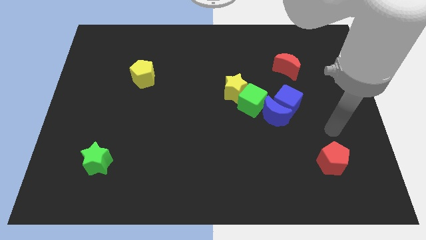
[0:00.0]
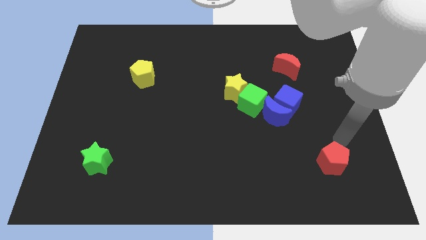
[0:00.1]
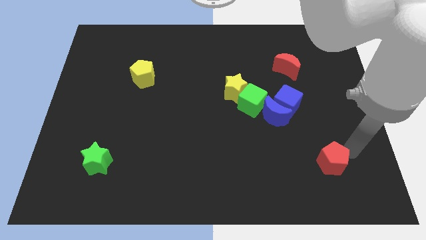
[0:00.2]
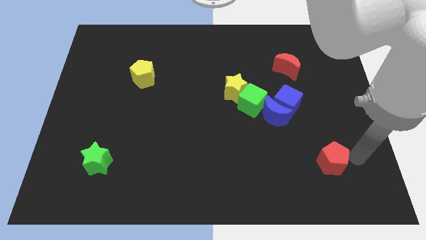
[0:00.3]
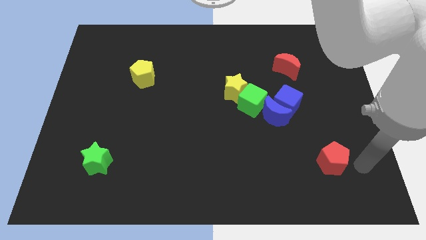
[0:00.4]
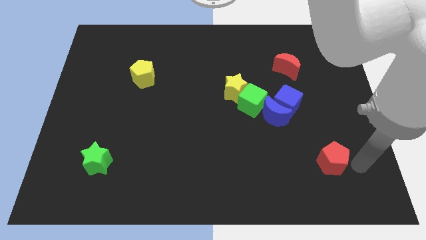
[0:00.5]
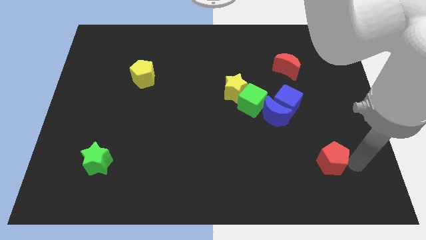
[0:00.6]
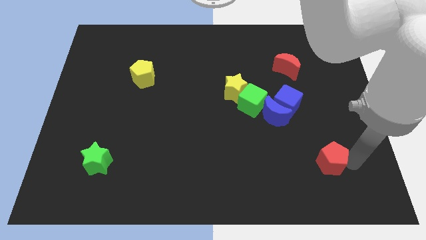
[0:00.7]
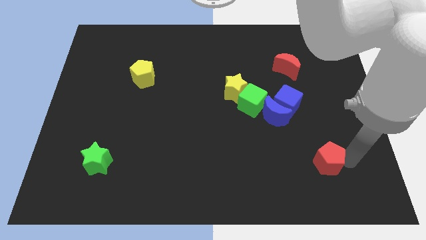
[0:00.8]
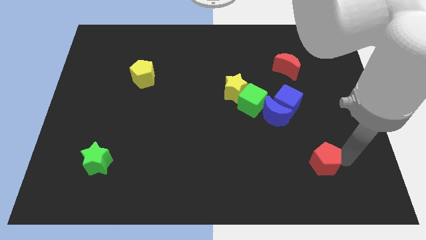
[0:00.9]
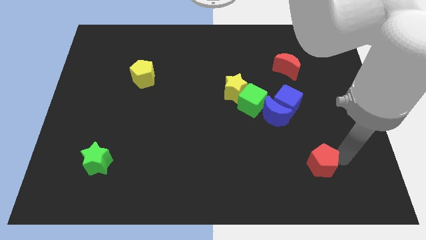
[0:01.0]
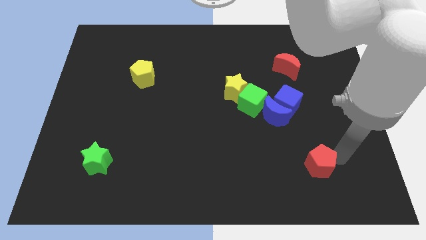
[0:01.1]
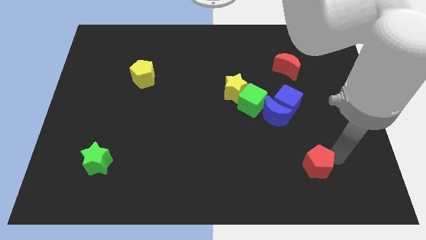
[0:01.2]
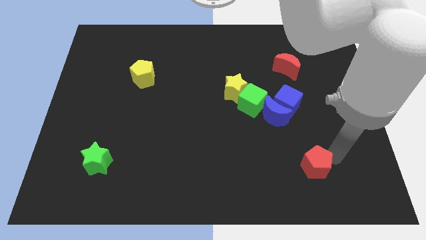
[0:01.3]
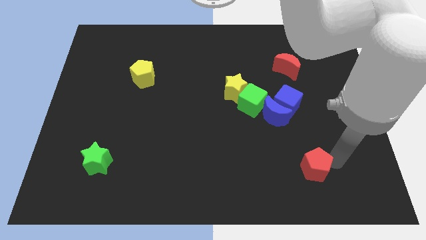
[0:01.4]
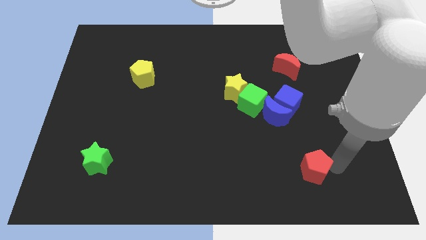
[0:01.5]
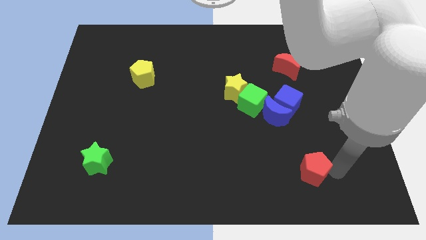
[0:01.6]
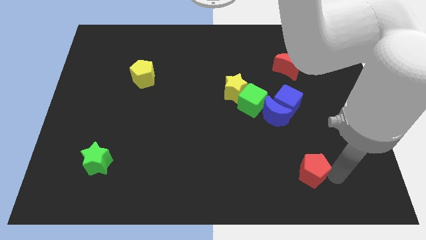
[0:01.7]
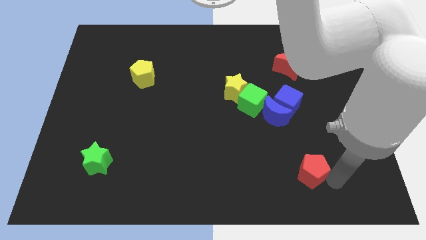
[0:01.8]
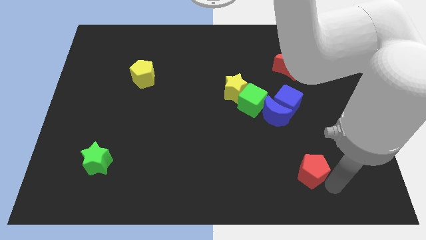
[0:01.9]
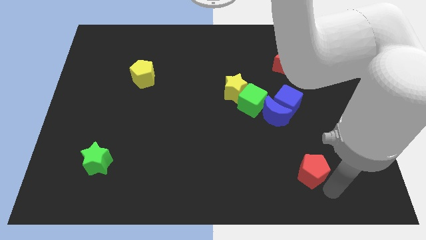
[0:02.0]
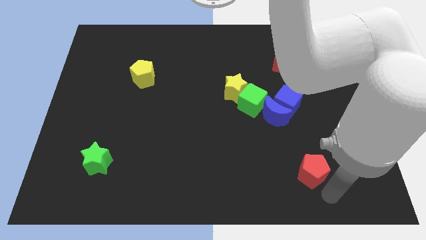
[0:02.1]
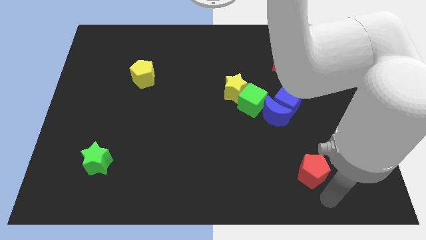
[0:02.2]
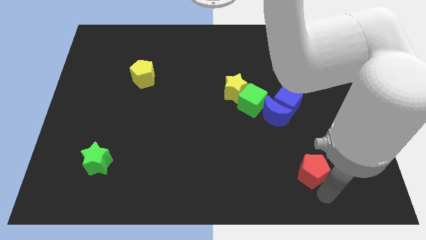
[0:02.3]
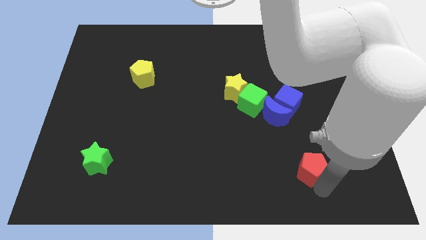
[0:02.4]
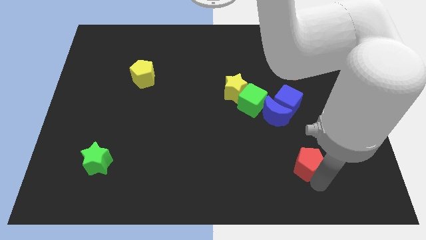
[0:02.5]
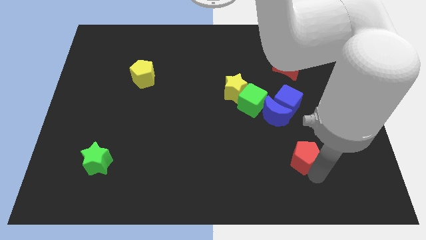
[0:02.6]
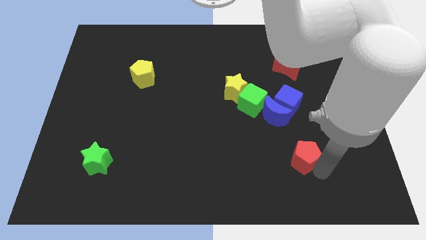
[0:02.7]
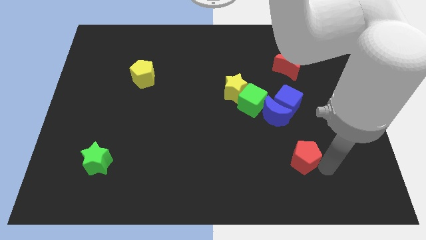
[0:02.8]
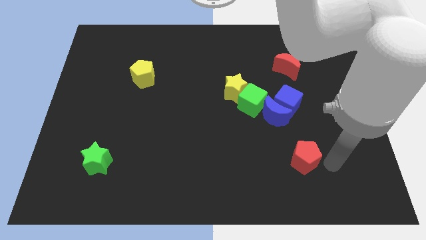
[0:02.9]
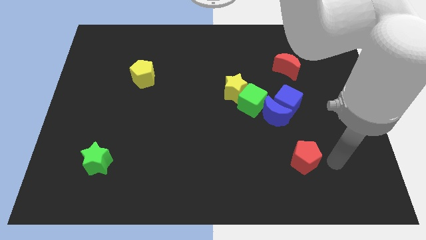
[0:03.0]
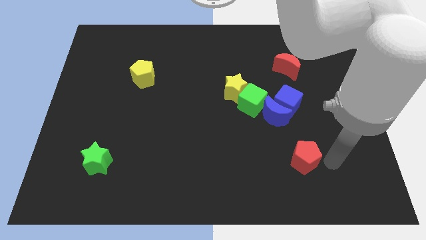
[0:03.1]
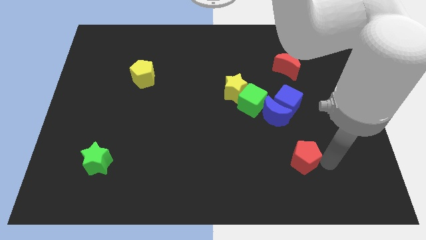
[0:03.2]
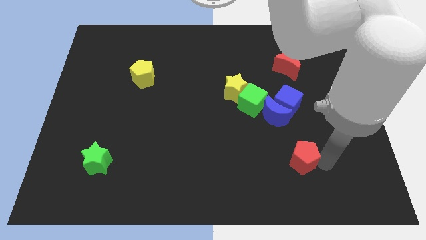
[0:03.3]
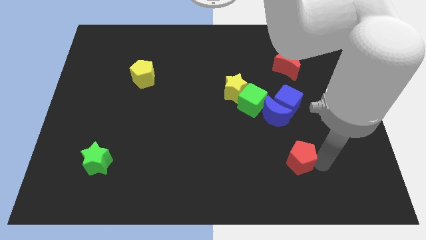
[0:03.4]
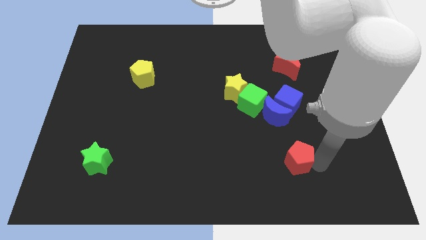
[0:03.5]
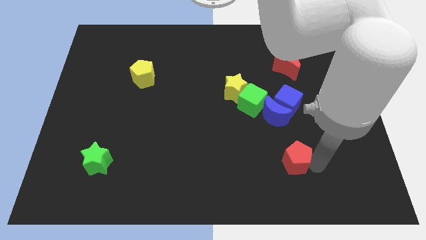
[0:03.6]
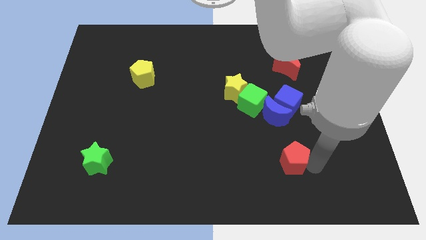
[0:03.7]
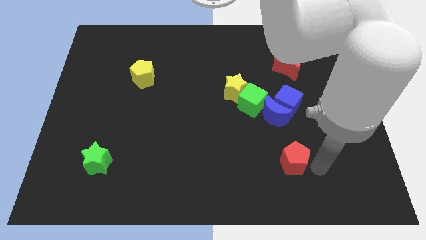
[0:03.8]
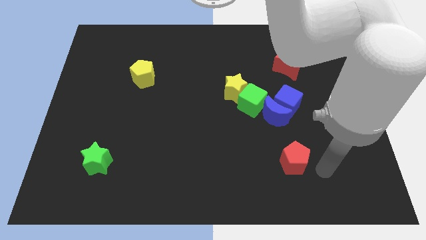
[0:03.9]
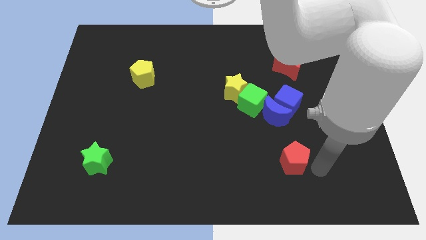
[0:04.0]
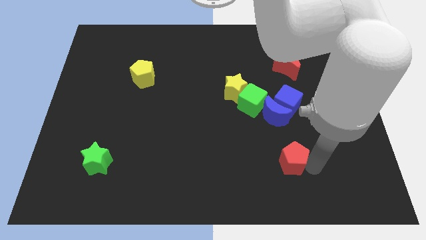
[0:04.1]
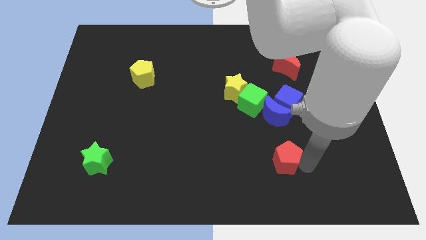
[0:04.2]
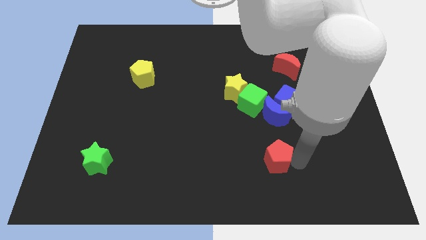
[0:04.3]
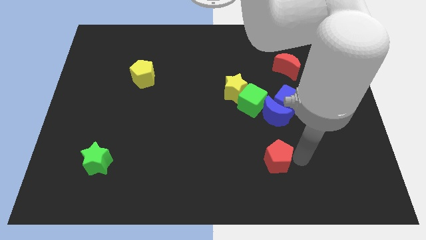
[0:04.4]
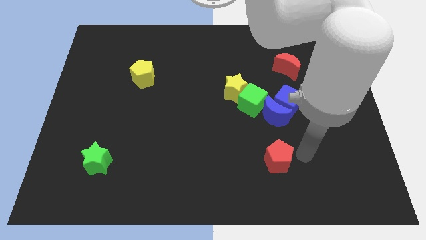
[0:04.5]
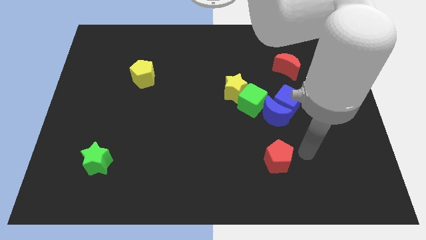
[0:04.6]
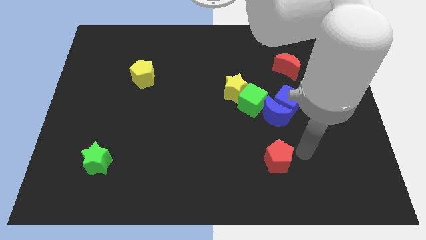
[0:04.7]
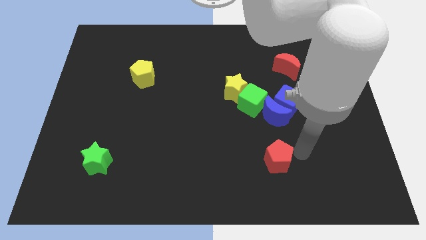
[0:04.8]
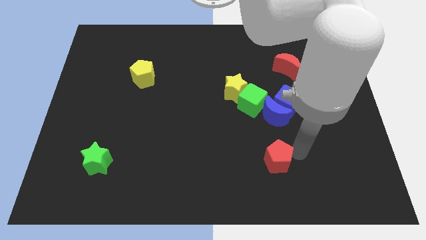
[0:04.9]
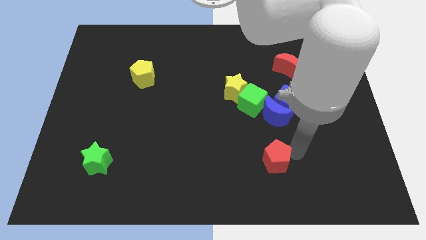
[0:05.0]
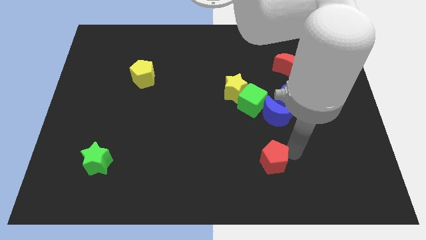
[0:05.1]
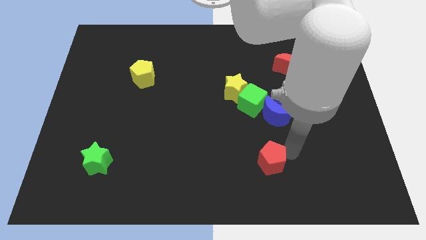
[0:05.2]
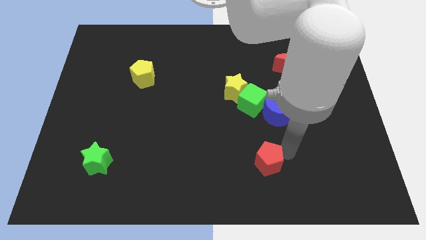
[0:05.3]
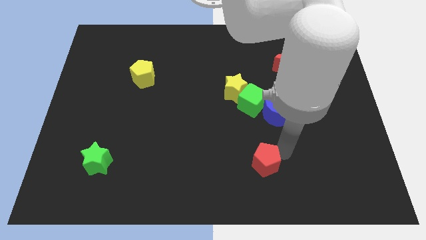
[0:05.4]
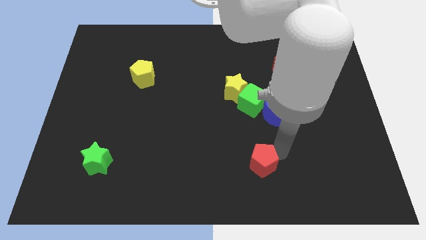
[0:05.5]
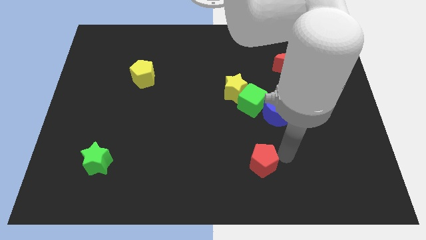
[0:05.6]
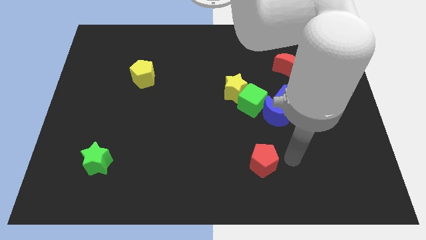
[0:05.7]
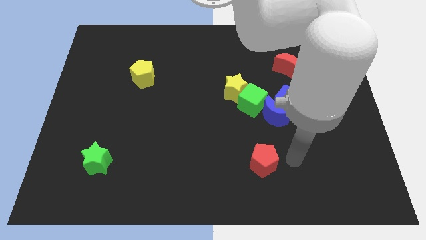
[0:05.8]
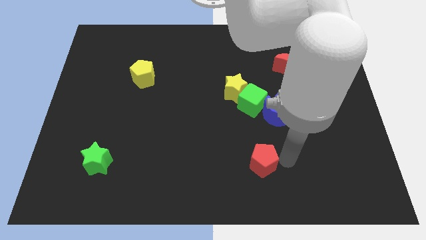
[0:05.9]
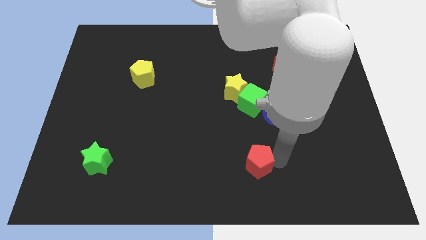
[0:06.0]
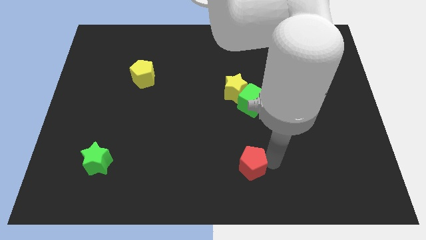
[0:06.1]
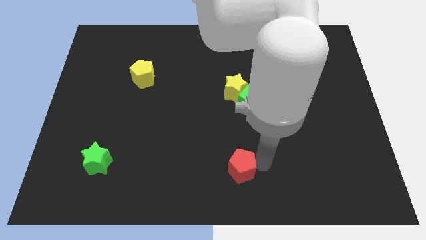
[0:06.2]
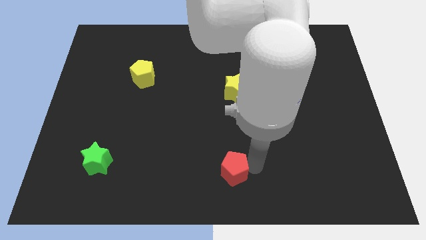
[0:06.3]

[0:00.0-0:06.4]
move the red pentagon to the left

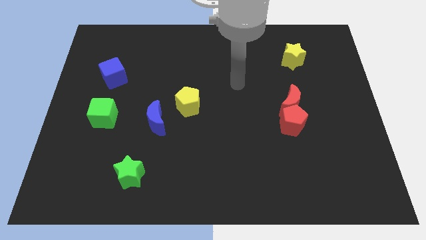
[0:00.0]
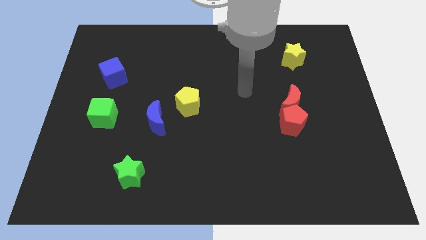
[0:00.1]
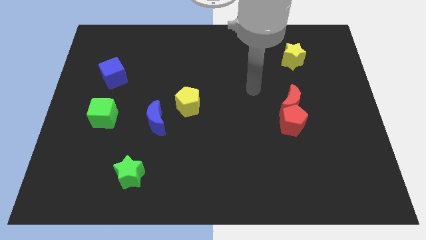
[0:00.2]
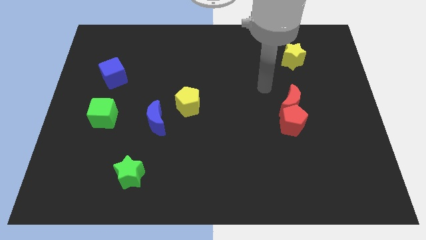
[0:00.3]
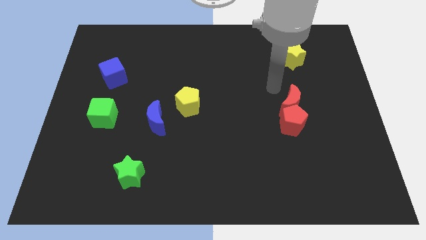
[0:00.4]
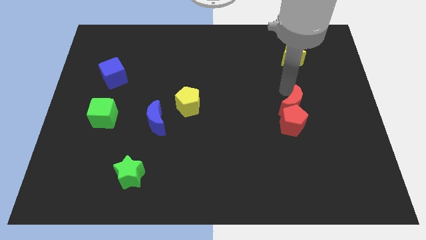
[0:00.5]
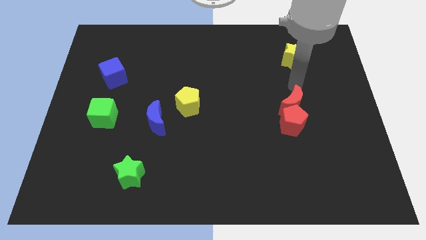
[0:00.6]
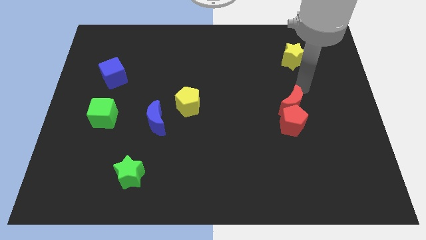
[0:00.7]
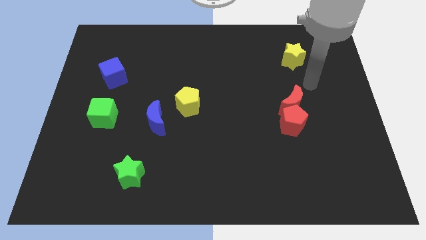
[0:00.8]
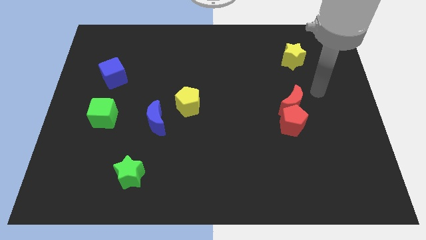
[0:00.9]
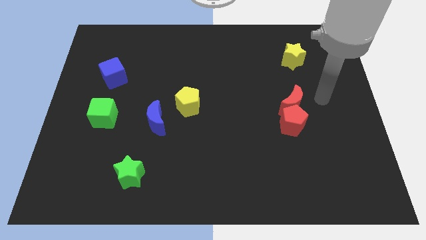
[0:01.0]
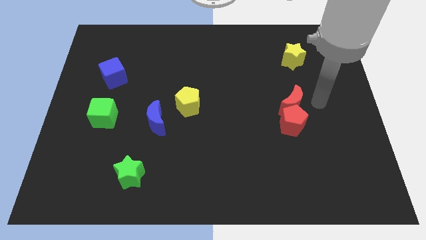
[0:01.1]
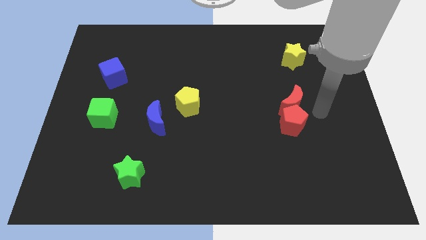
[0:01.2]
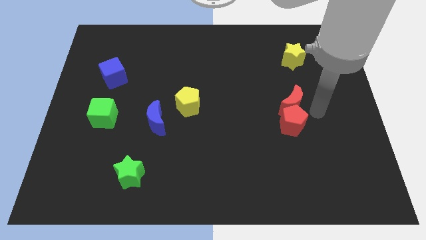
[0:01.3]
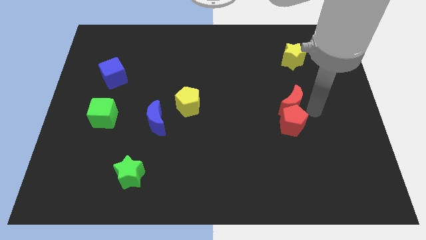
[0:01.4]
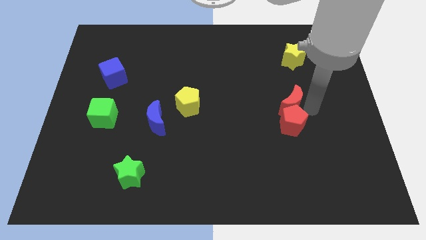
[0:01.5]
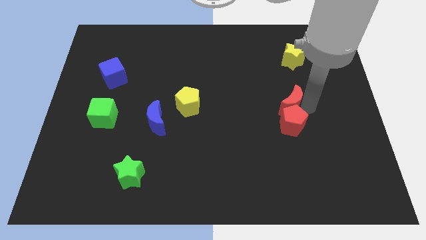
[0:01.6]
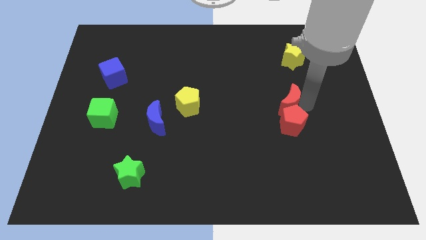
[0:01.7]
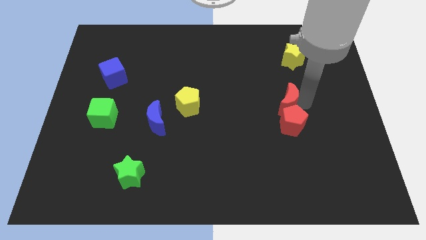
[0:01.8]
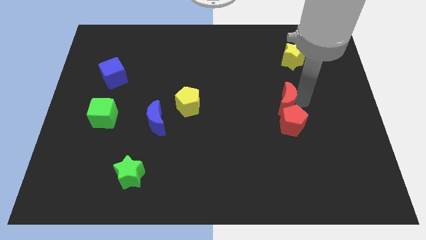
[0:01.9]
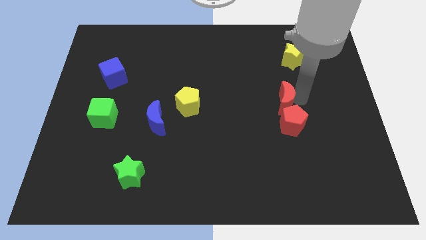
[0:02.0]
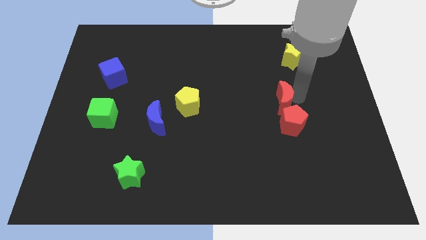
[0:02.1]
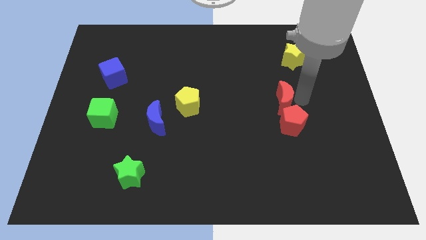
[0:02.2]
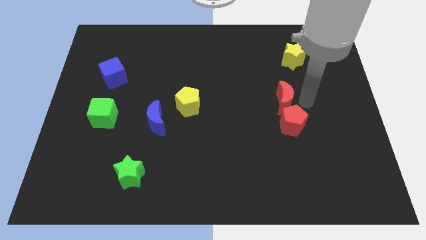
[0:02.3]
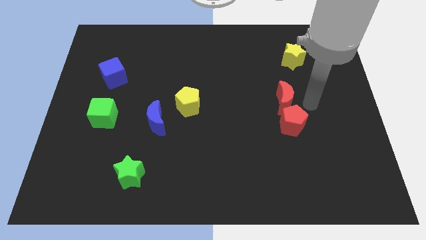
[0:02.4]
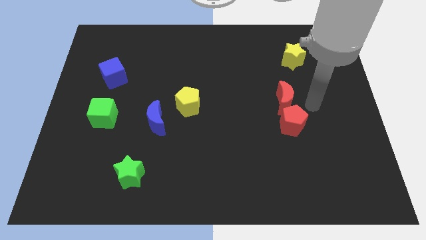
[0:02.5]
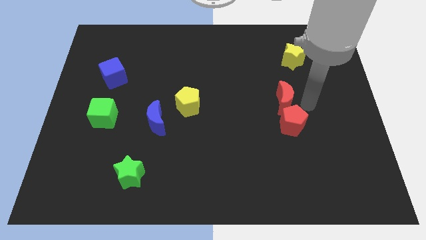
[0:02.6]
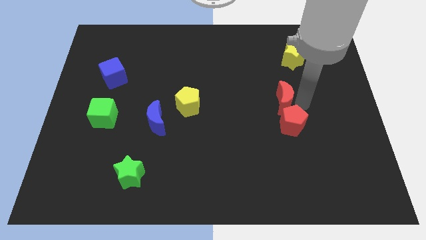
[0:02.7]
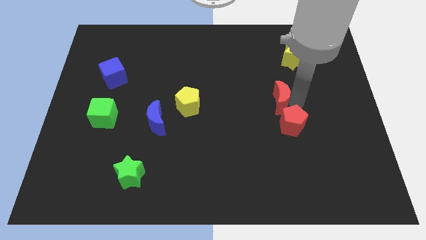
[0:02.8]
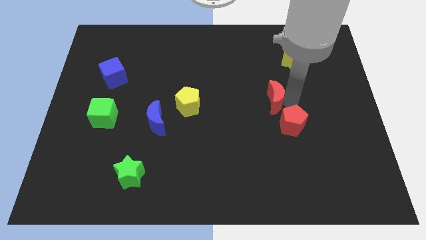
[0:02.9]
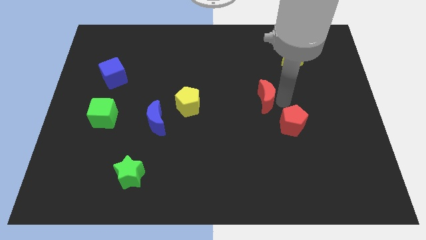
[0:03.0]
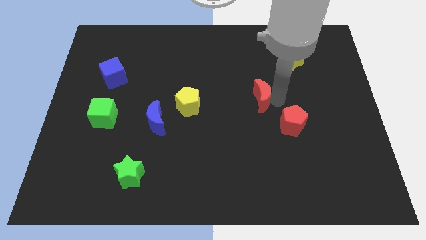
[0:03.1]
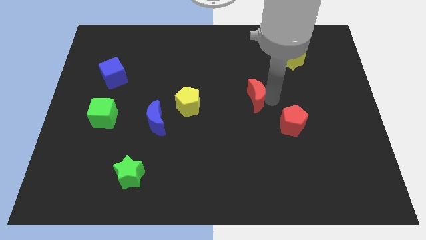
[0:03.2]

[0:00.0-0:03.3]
move the red moon left slightly
